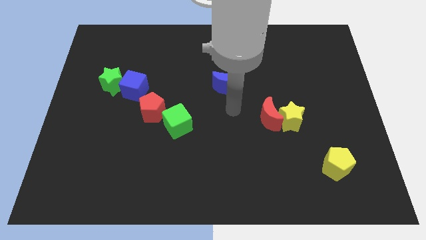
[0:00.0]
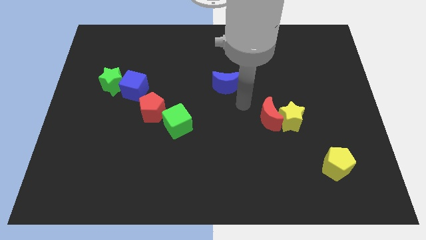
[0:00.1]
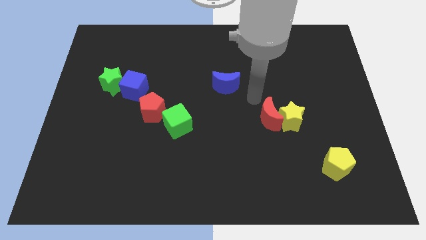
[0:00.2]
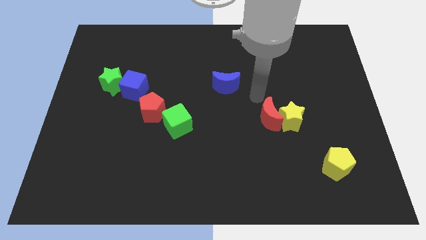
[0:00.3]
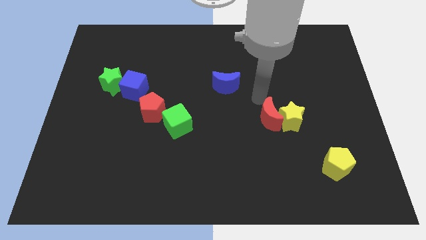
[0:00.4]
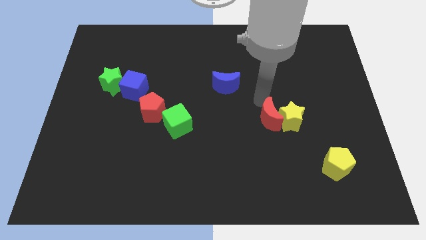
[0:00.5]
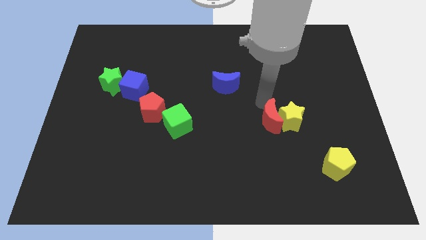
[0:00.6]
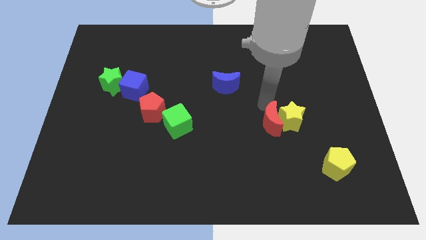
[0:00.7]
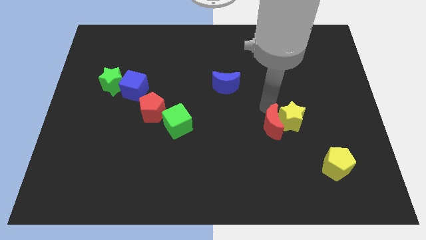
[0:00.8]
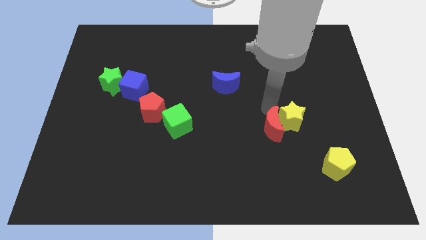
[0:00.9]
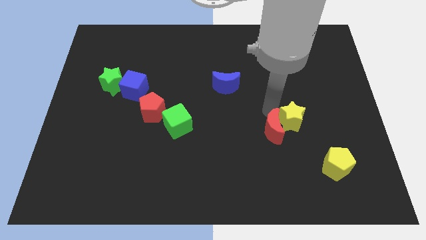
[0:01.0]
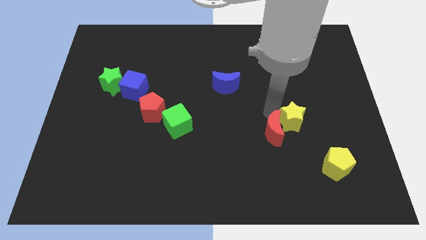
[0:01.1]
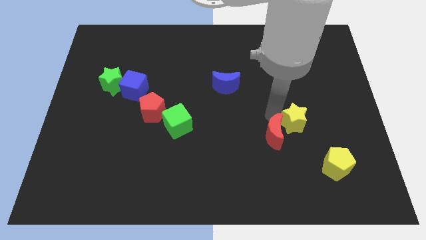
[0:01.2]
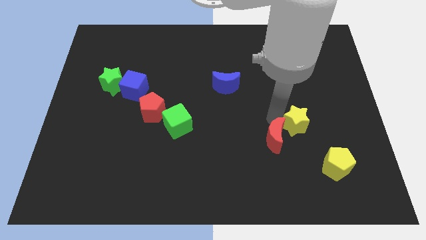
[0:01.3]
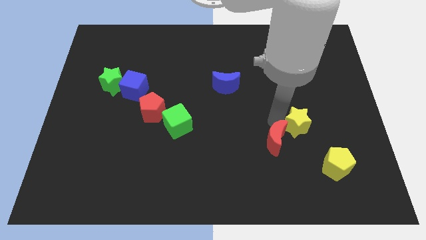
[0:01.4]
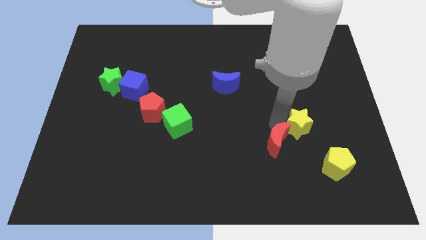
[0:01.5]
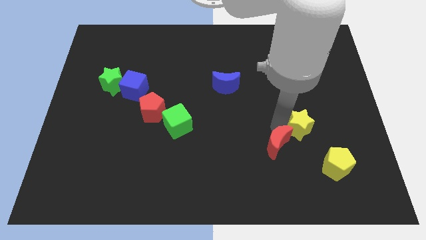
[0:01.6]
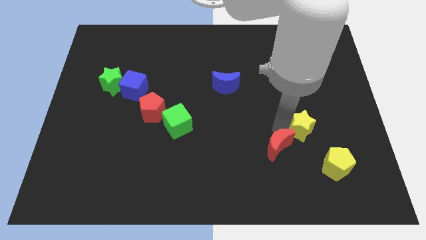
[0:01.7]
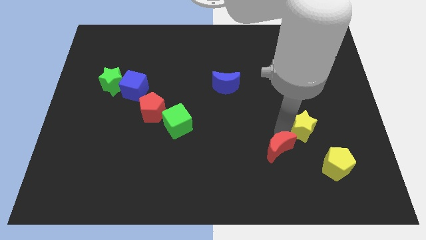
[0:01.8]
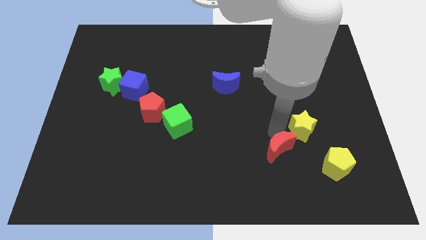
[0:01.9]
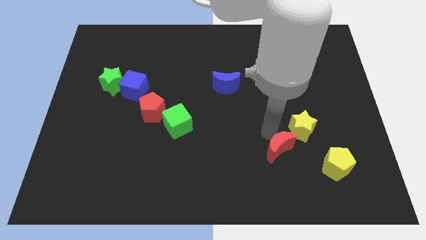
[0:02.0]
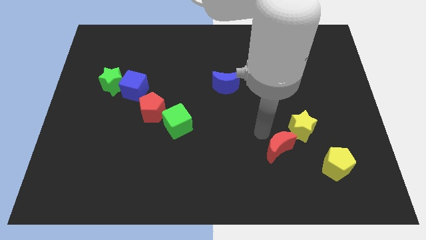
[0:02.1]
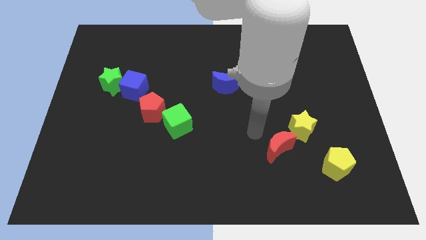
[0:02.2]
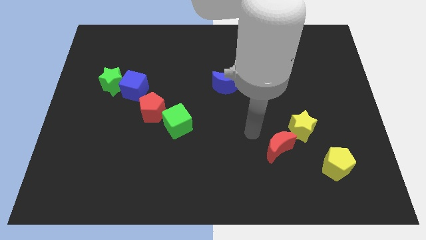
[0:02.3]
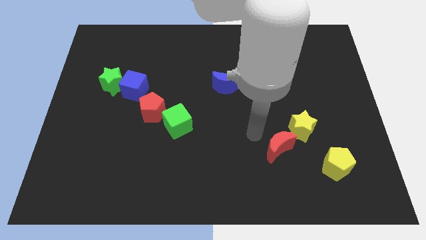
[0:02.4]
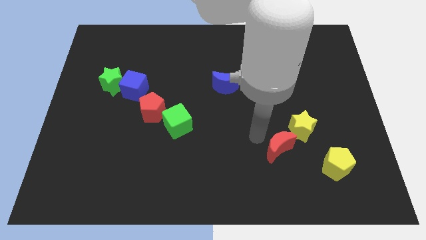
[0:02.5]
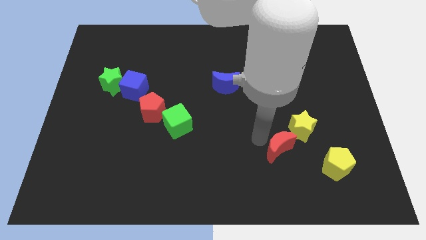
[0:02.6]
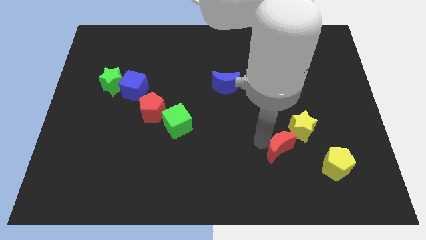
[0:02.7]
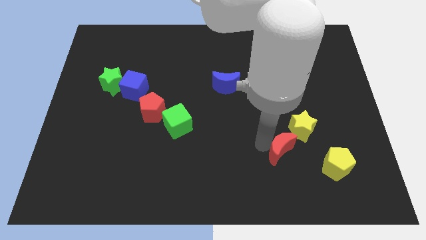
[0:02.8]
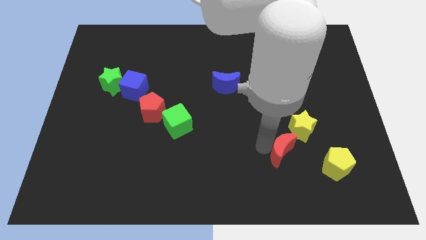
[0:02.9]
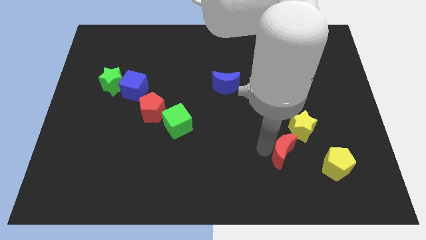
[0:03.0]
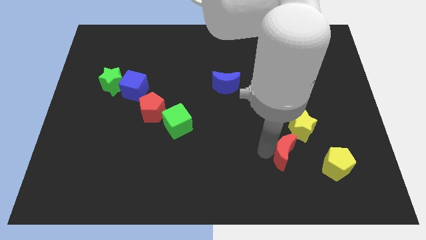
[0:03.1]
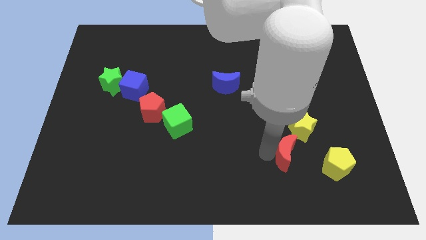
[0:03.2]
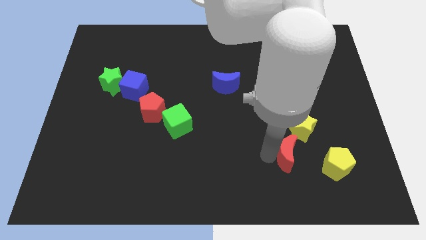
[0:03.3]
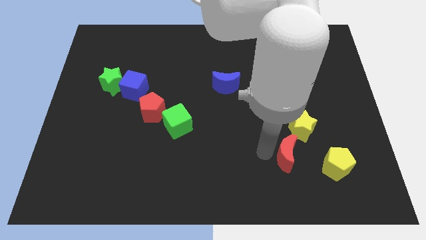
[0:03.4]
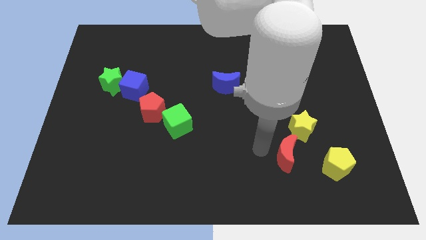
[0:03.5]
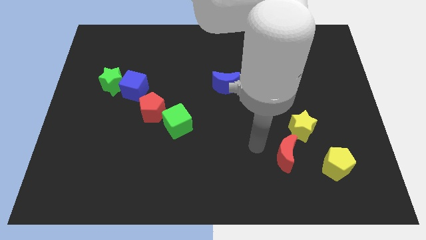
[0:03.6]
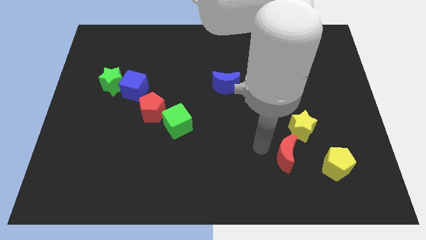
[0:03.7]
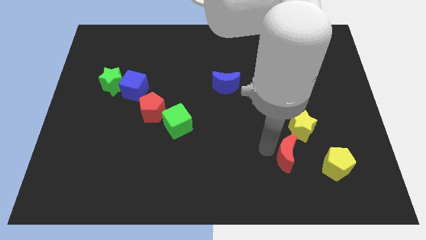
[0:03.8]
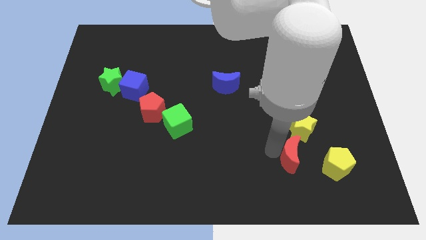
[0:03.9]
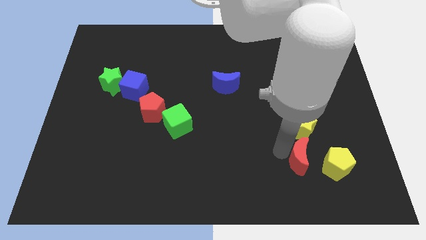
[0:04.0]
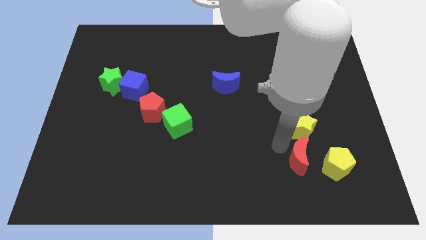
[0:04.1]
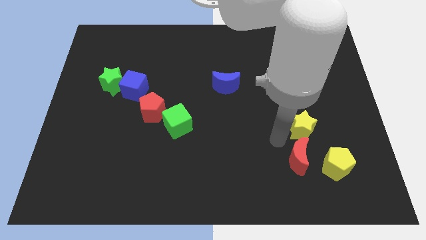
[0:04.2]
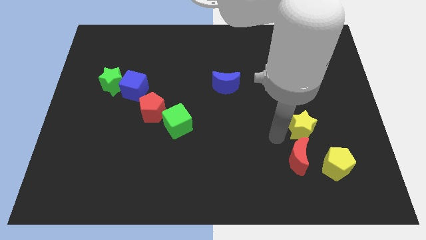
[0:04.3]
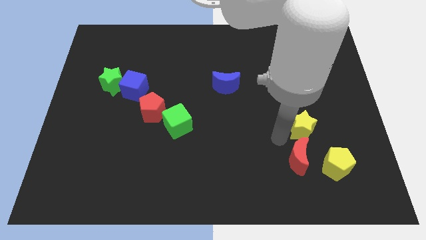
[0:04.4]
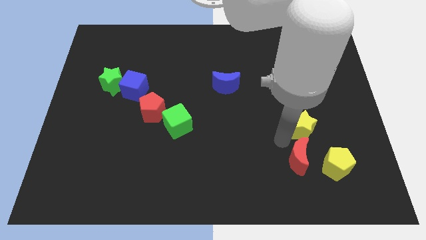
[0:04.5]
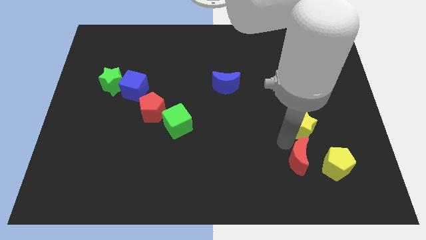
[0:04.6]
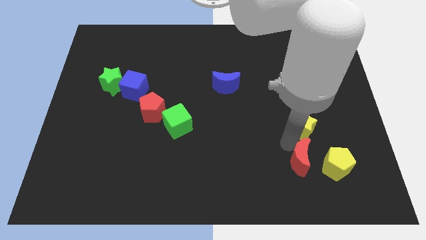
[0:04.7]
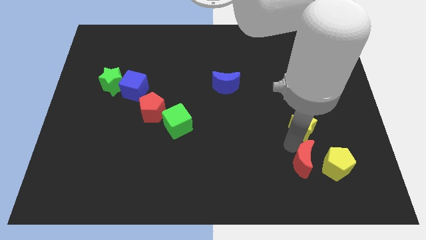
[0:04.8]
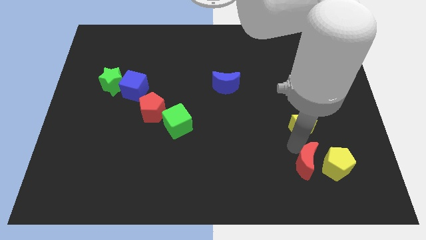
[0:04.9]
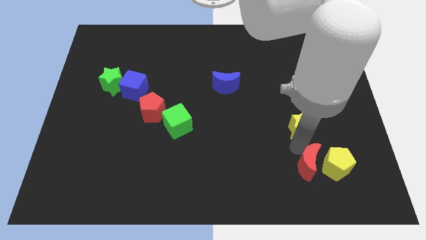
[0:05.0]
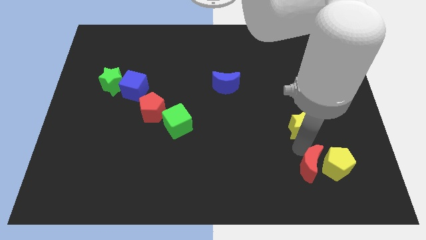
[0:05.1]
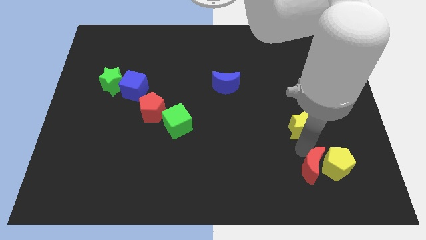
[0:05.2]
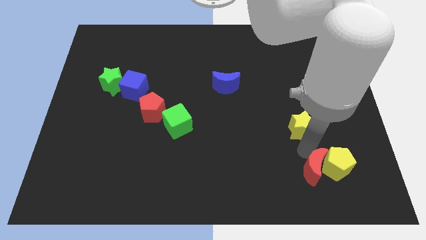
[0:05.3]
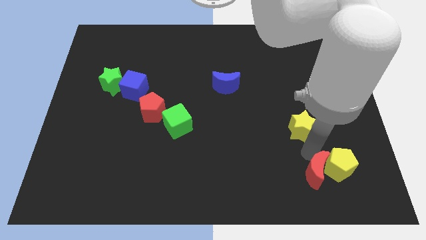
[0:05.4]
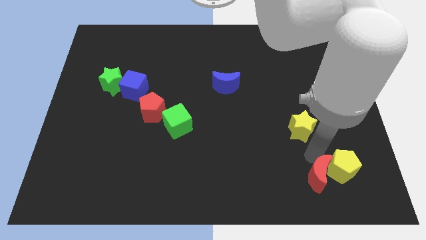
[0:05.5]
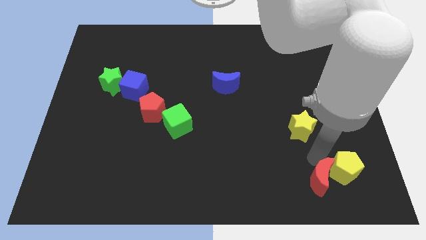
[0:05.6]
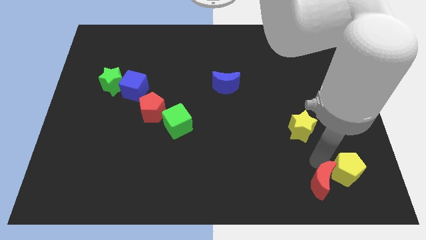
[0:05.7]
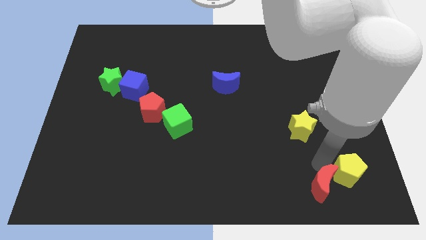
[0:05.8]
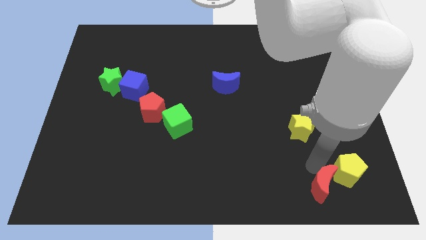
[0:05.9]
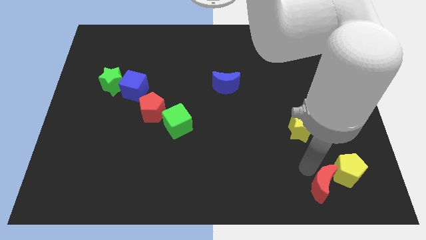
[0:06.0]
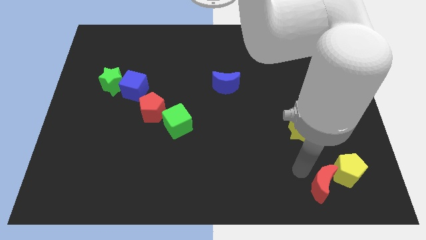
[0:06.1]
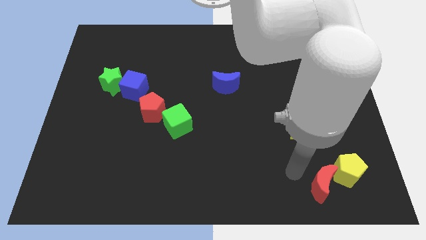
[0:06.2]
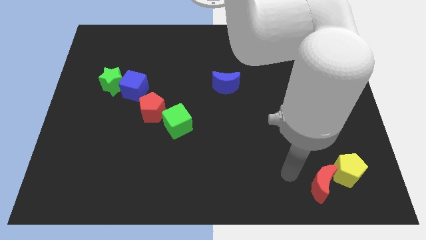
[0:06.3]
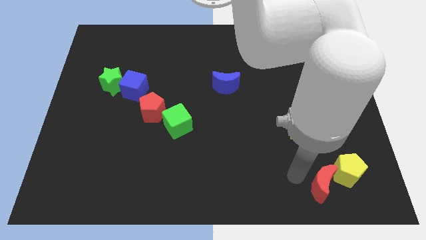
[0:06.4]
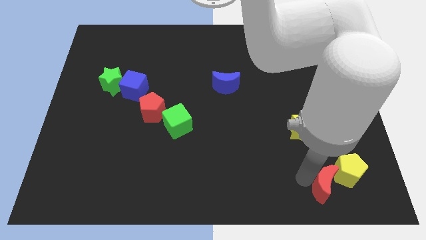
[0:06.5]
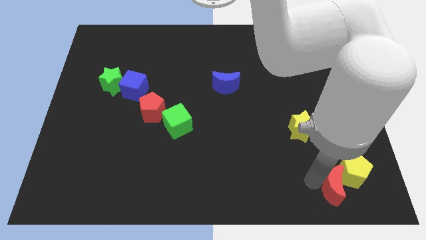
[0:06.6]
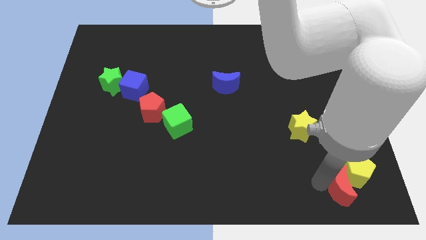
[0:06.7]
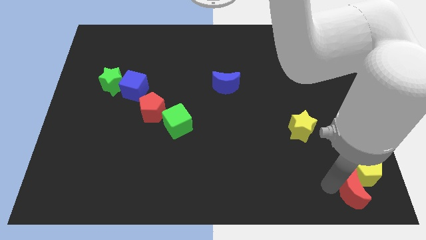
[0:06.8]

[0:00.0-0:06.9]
move the red moon to the bottom right
